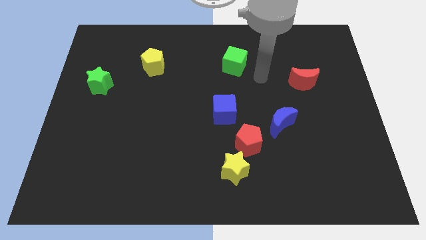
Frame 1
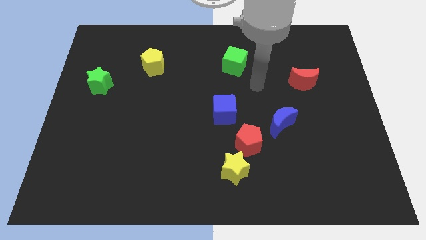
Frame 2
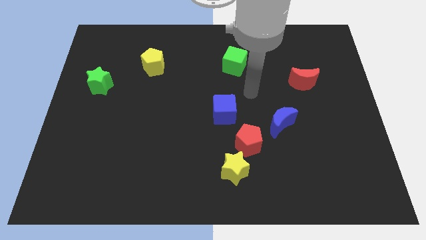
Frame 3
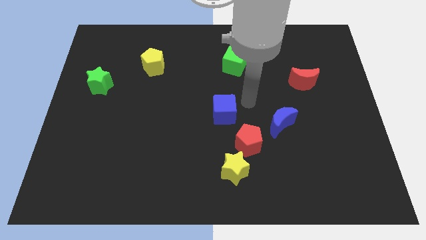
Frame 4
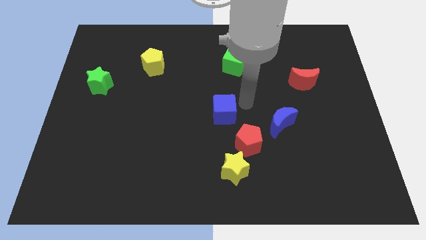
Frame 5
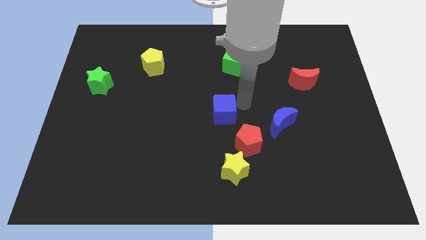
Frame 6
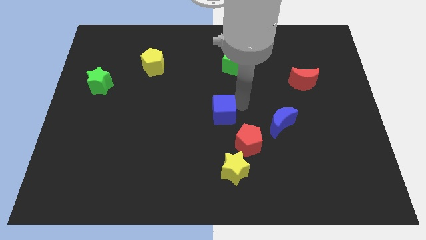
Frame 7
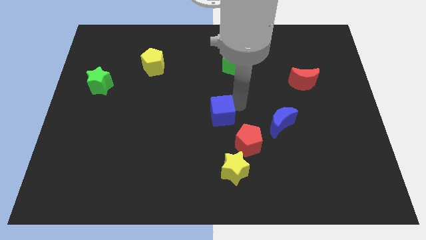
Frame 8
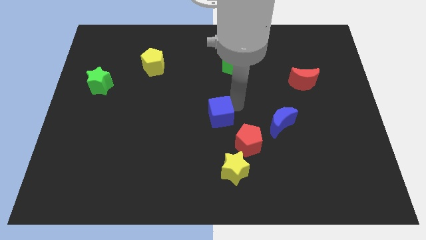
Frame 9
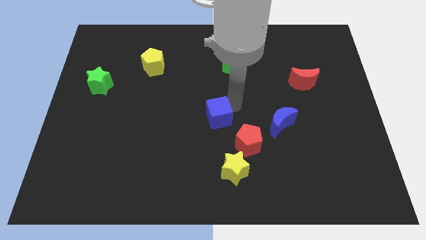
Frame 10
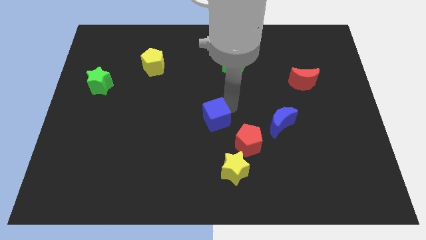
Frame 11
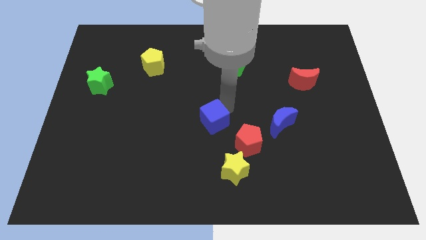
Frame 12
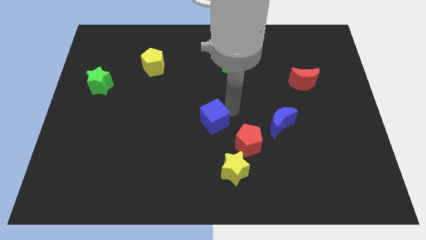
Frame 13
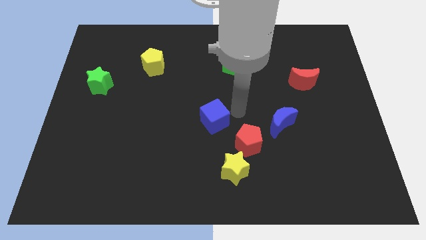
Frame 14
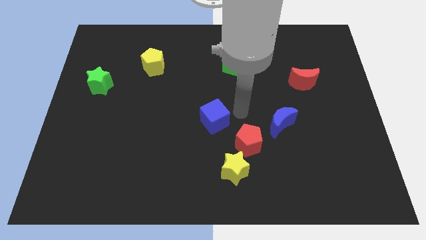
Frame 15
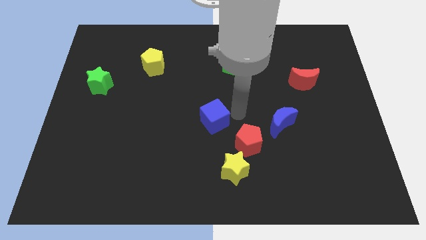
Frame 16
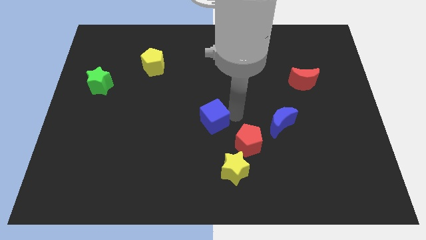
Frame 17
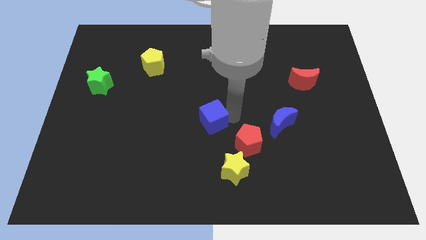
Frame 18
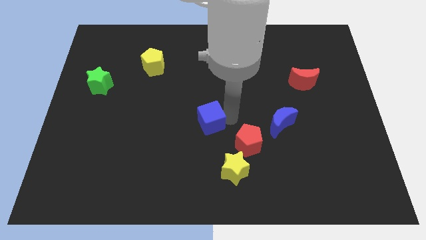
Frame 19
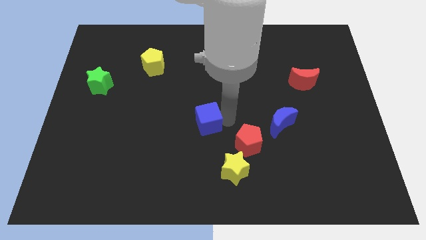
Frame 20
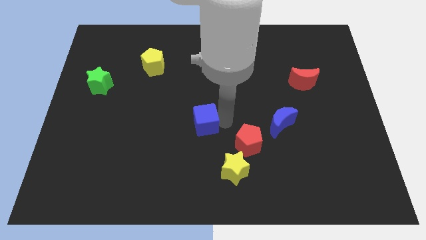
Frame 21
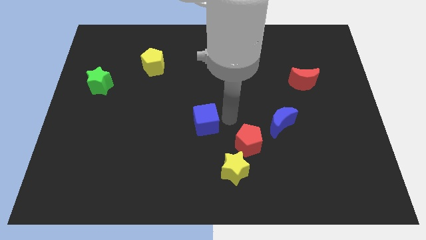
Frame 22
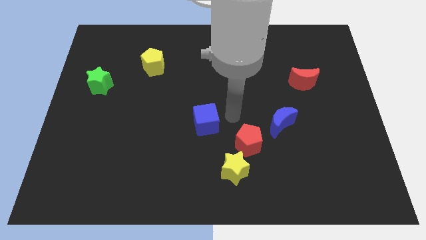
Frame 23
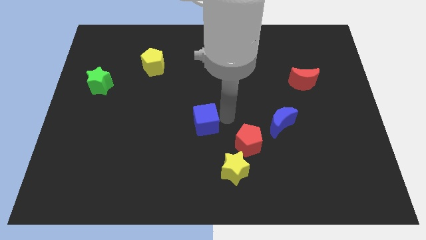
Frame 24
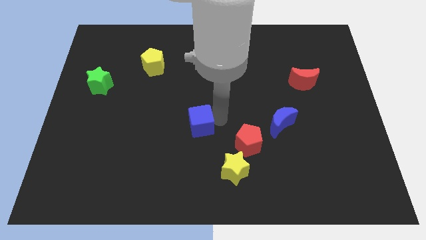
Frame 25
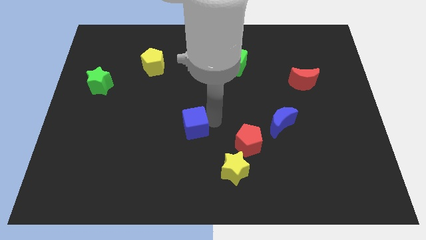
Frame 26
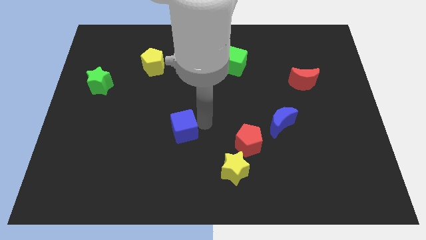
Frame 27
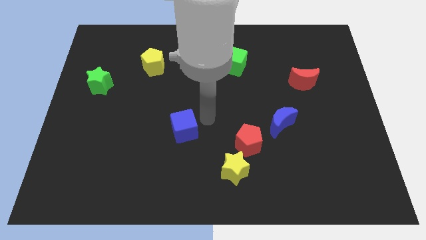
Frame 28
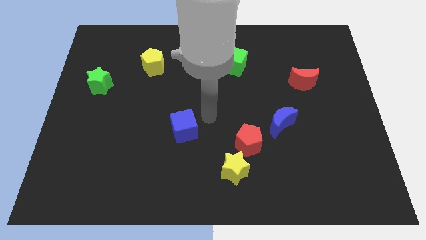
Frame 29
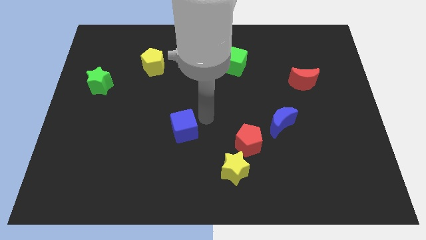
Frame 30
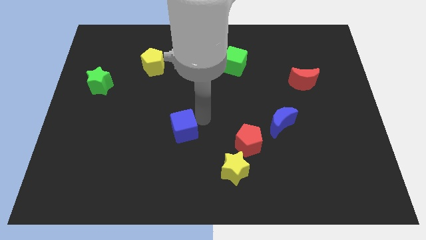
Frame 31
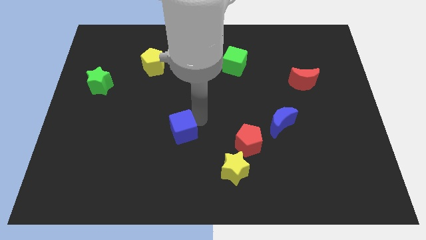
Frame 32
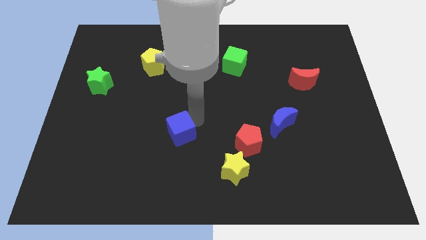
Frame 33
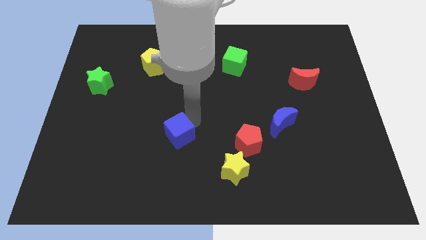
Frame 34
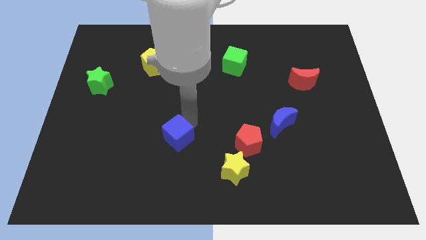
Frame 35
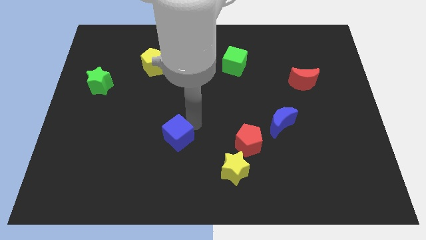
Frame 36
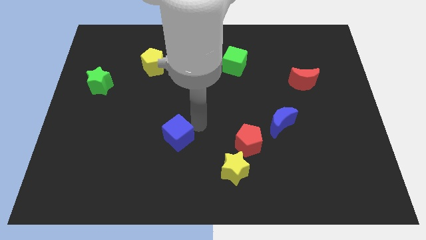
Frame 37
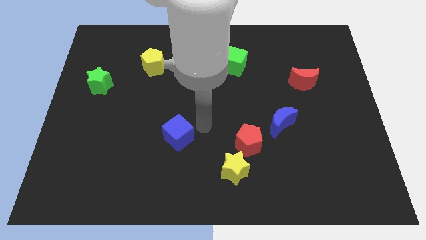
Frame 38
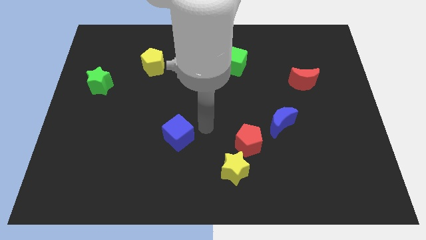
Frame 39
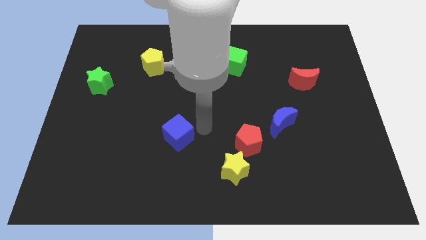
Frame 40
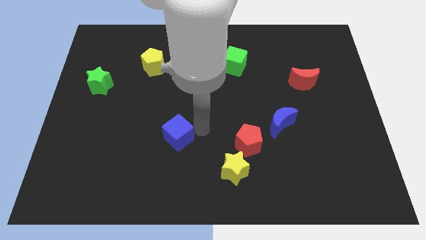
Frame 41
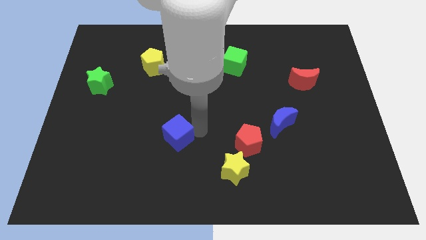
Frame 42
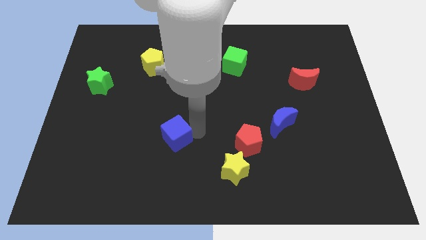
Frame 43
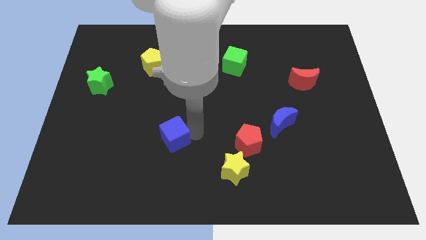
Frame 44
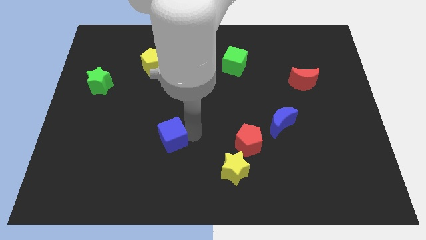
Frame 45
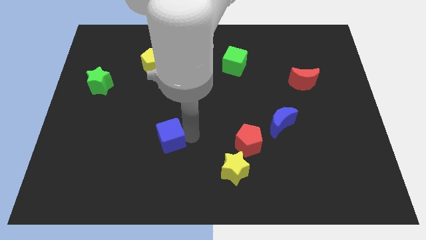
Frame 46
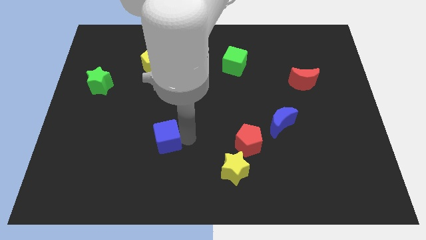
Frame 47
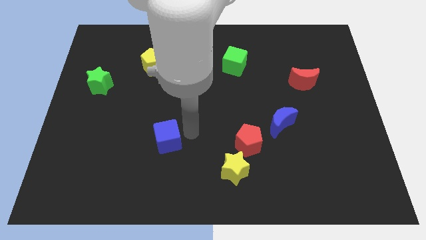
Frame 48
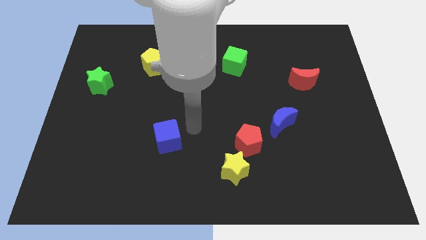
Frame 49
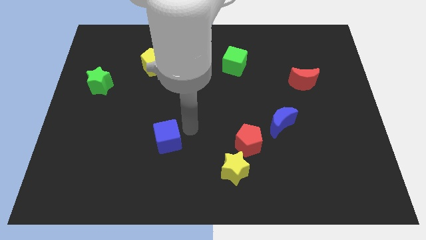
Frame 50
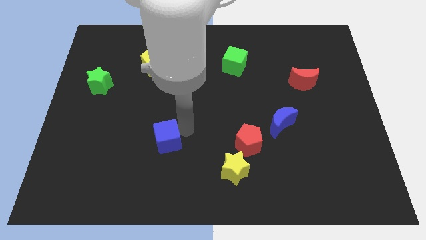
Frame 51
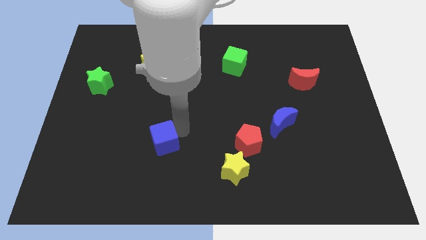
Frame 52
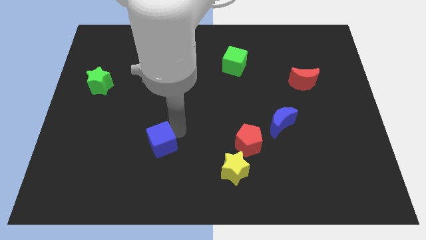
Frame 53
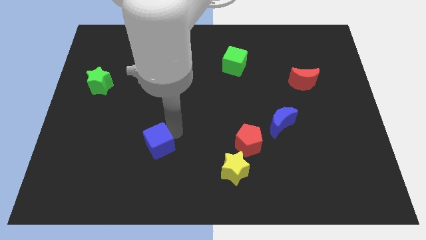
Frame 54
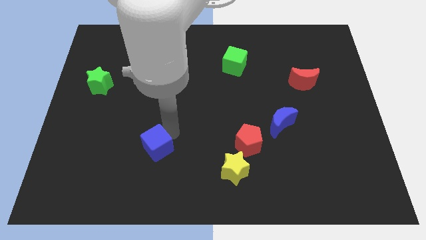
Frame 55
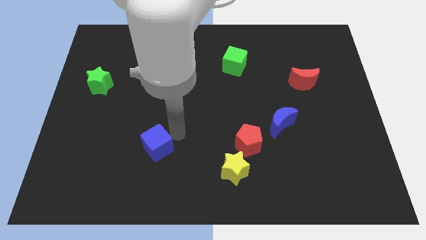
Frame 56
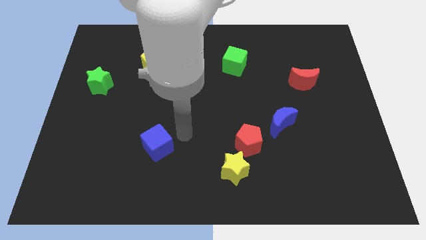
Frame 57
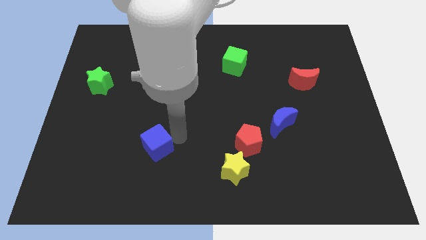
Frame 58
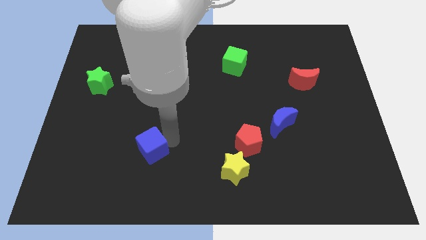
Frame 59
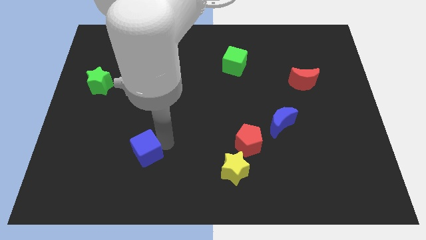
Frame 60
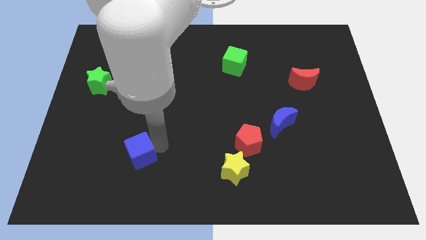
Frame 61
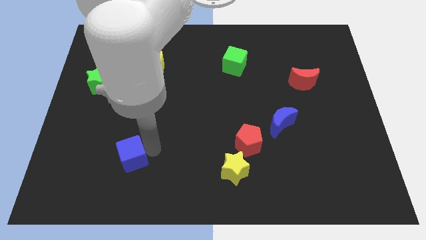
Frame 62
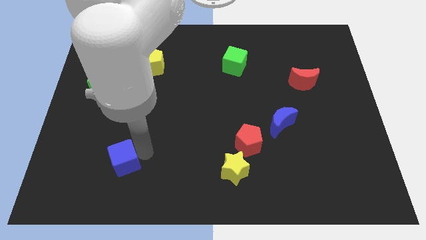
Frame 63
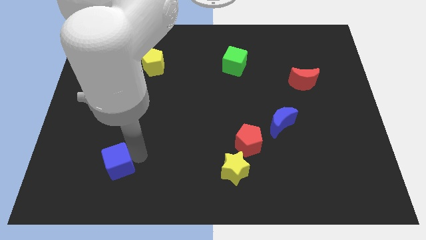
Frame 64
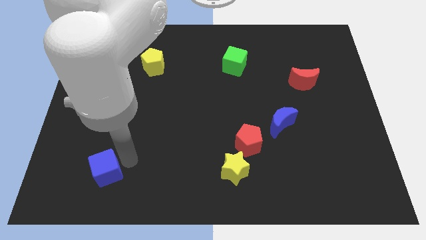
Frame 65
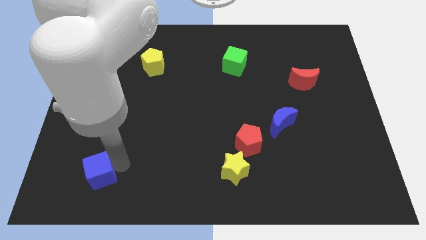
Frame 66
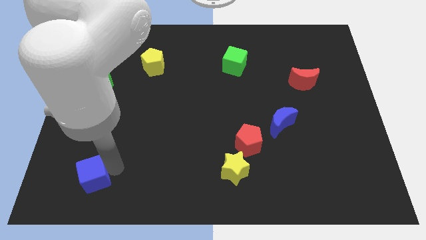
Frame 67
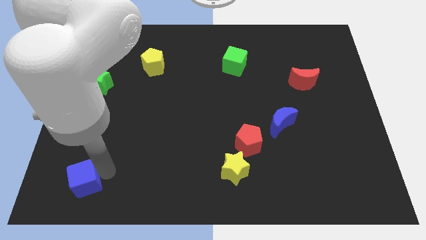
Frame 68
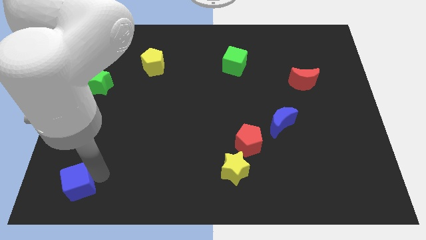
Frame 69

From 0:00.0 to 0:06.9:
put the blue cube to the lower left corner
